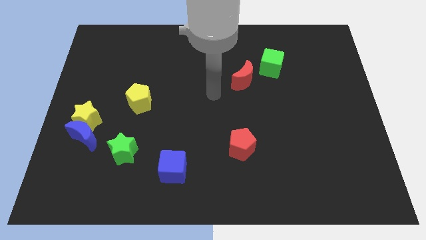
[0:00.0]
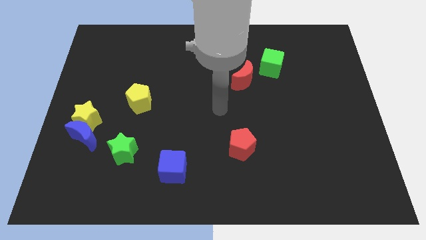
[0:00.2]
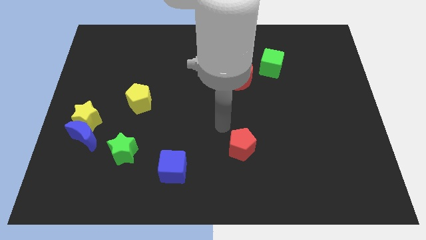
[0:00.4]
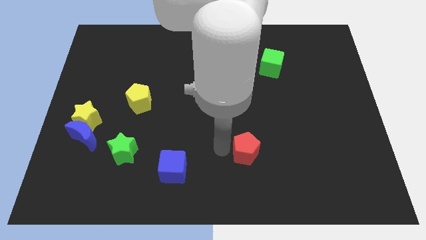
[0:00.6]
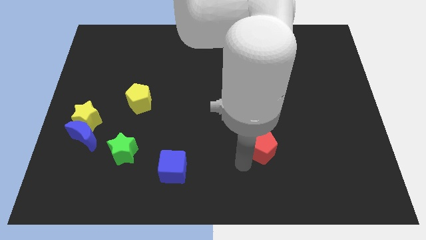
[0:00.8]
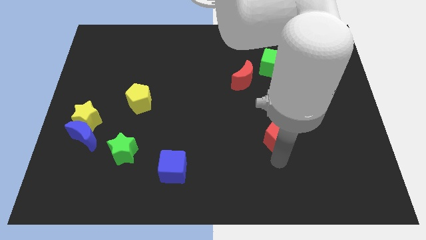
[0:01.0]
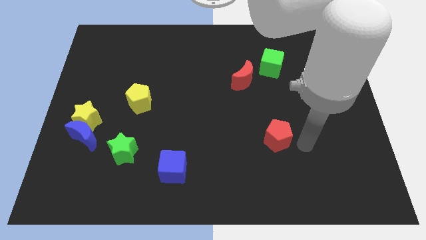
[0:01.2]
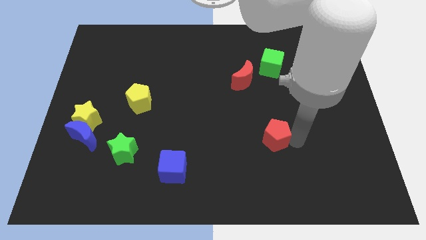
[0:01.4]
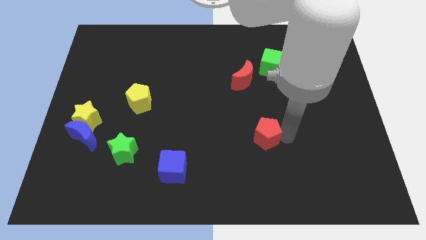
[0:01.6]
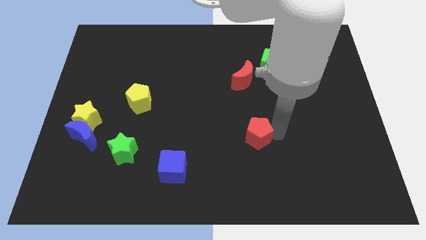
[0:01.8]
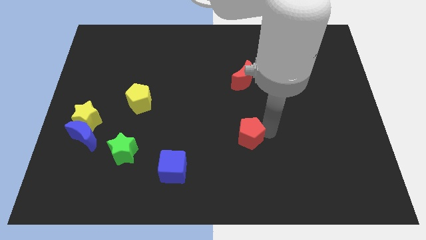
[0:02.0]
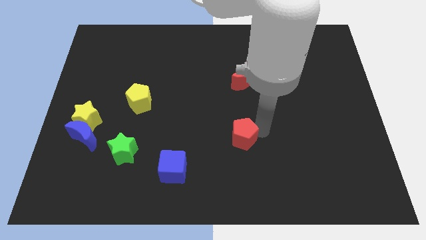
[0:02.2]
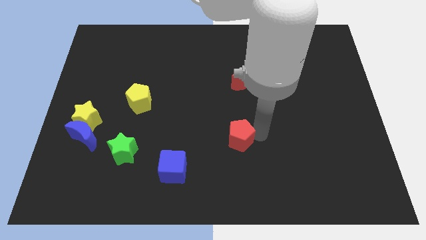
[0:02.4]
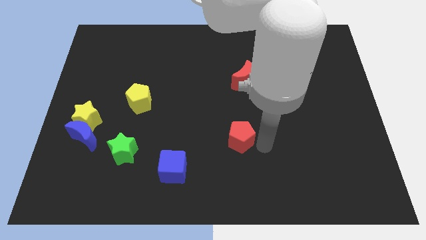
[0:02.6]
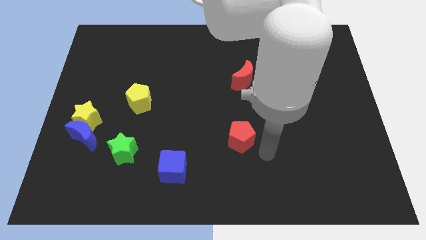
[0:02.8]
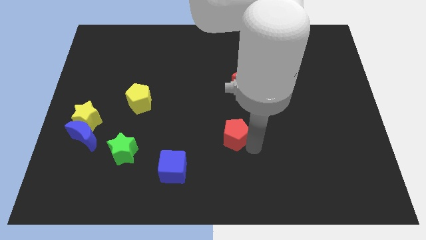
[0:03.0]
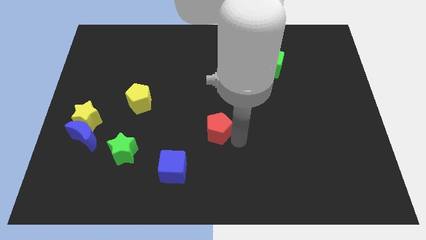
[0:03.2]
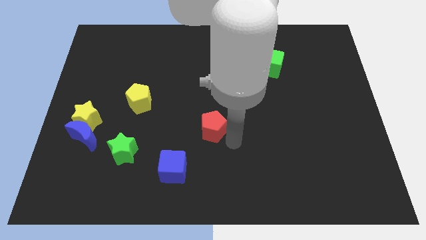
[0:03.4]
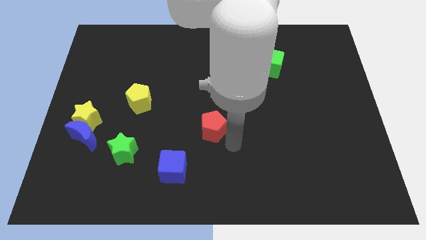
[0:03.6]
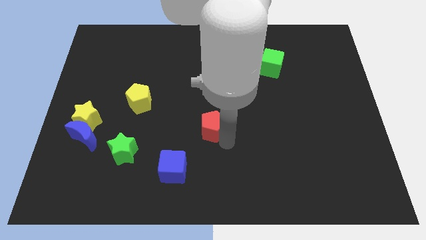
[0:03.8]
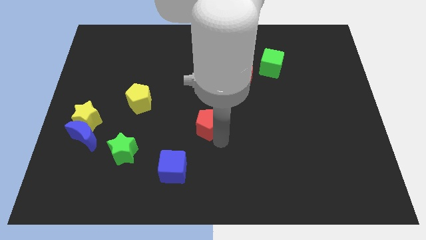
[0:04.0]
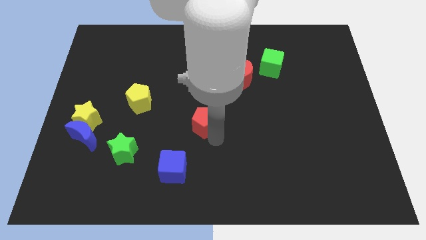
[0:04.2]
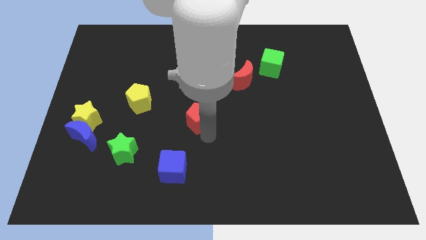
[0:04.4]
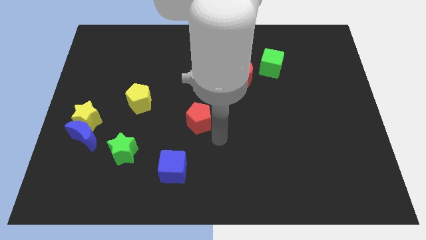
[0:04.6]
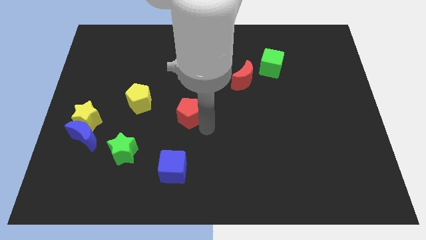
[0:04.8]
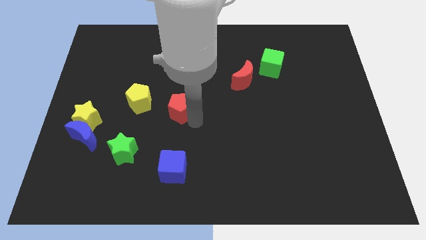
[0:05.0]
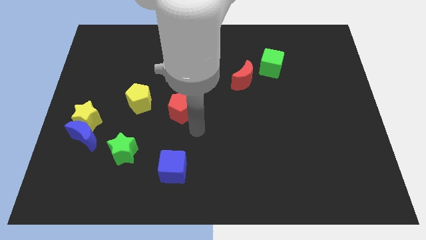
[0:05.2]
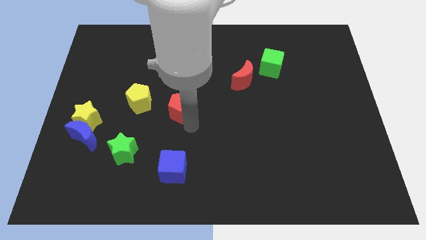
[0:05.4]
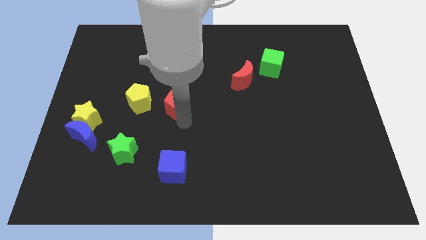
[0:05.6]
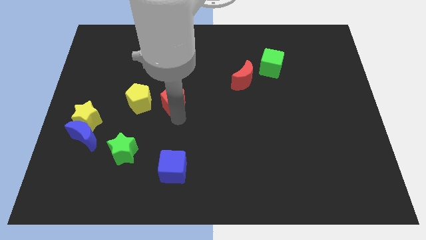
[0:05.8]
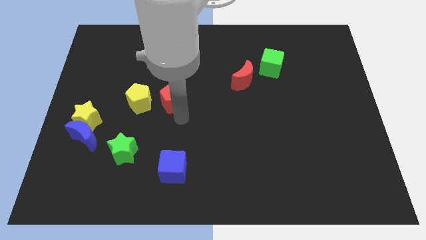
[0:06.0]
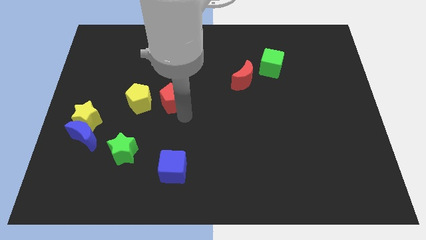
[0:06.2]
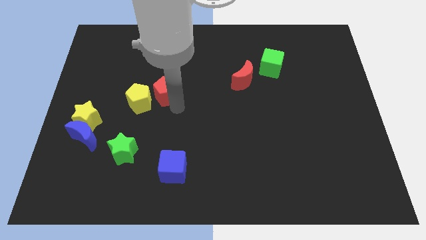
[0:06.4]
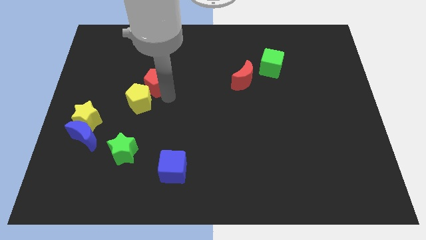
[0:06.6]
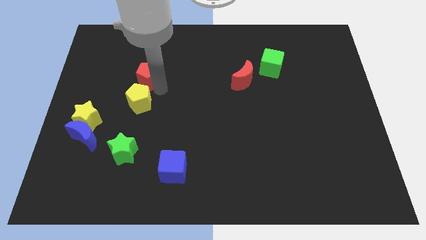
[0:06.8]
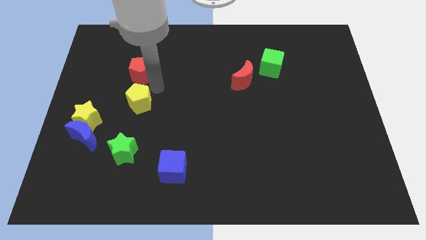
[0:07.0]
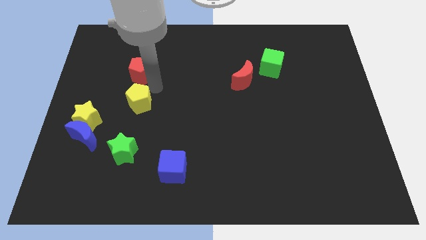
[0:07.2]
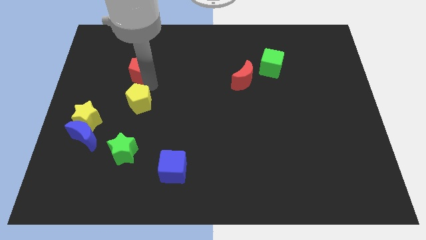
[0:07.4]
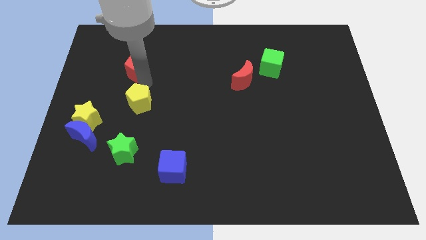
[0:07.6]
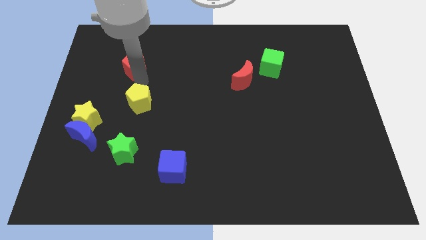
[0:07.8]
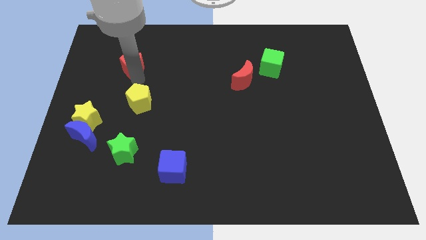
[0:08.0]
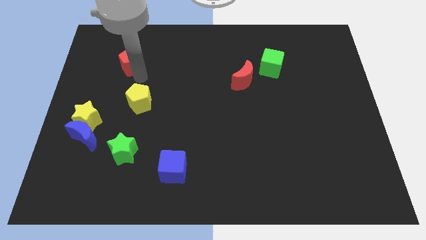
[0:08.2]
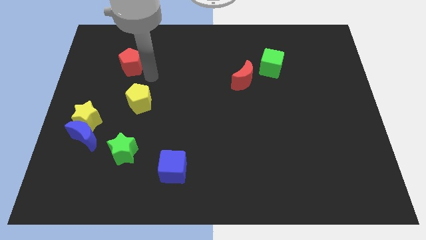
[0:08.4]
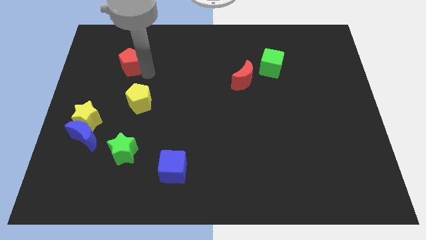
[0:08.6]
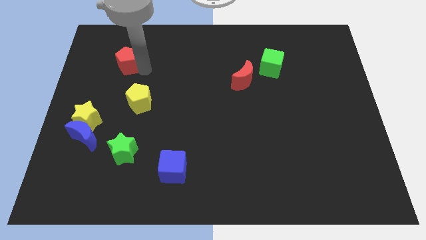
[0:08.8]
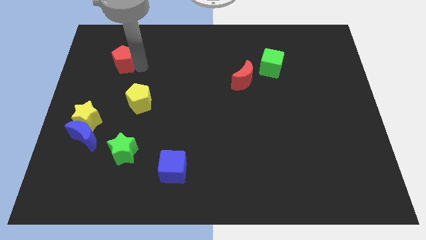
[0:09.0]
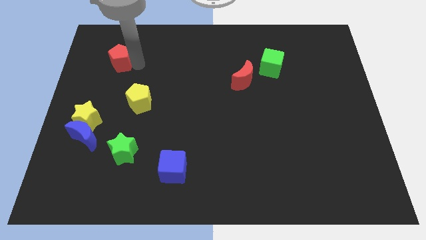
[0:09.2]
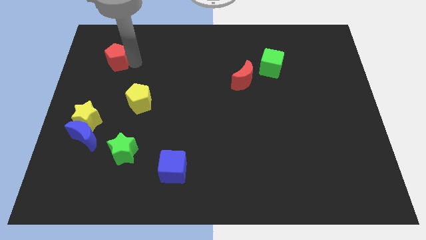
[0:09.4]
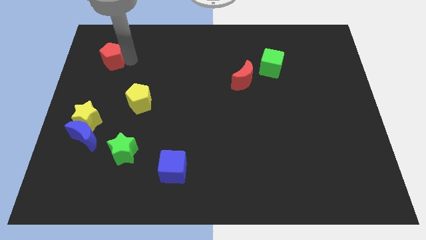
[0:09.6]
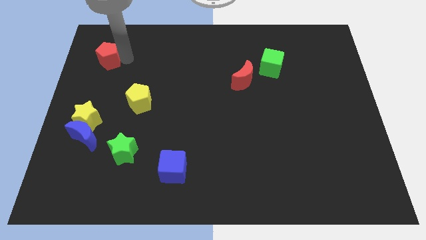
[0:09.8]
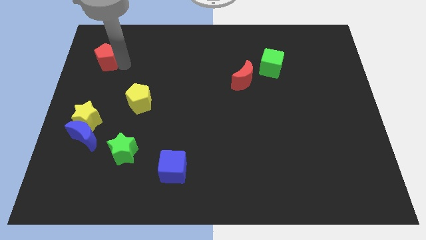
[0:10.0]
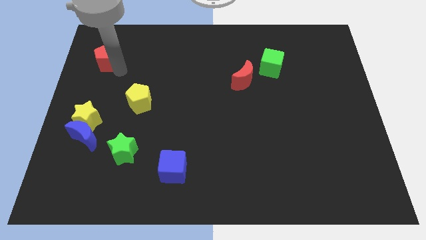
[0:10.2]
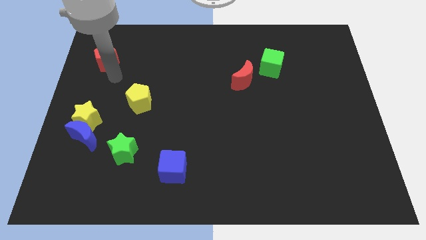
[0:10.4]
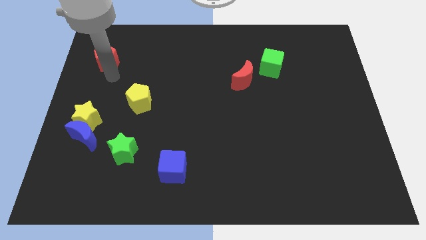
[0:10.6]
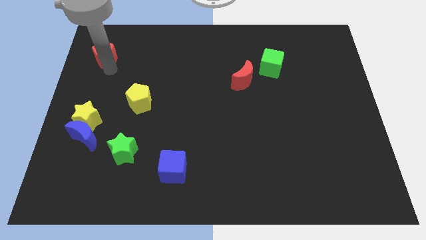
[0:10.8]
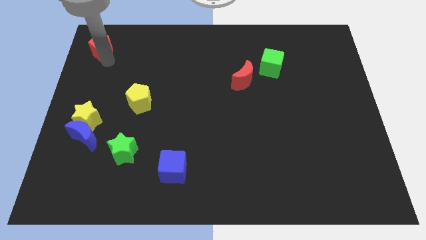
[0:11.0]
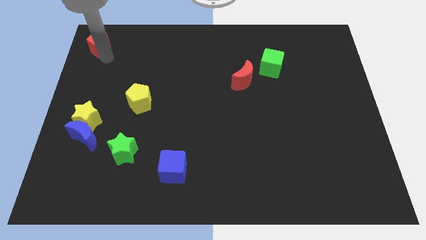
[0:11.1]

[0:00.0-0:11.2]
put the red pentagon to the upper left corner
